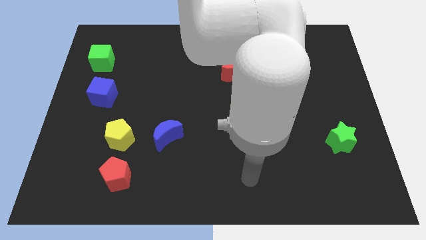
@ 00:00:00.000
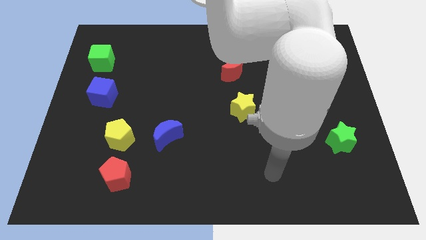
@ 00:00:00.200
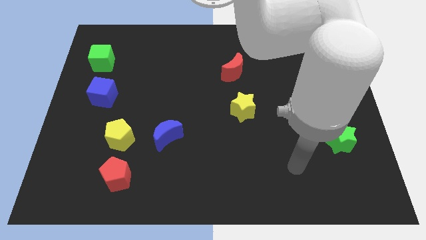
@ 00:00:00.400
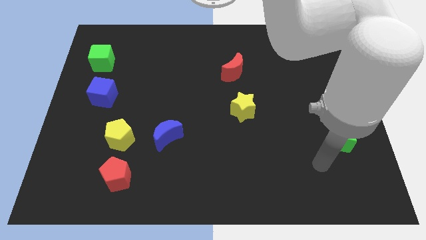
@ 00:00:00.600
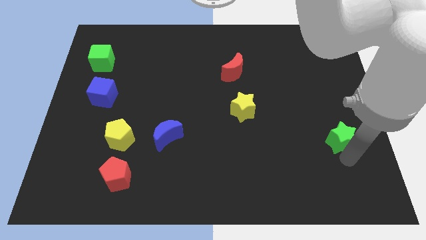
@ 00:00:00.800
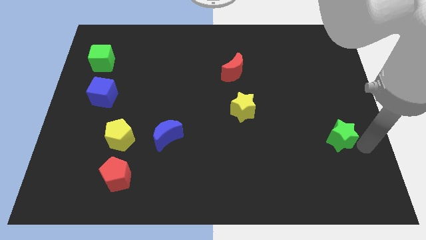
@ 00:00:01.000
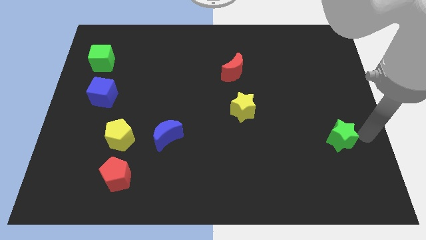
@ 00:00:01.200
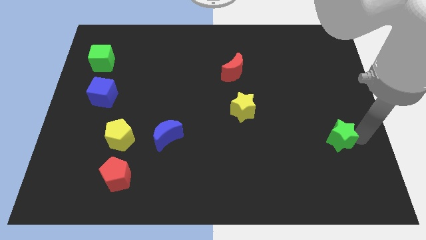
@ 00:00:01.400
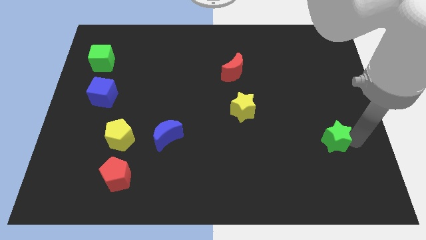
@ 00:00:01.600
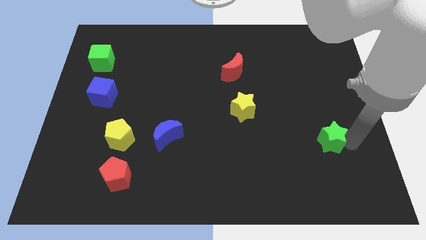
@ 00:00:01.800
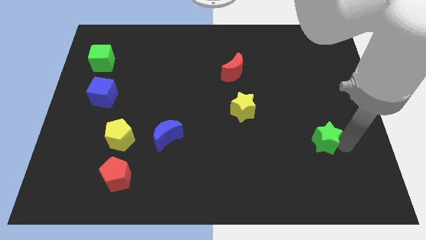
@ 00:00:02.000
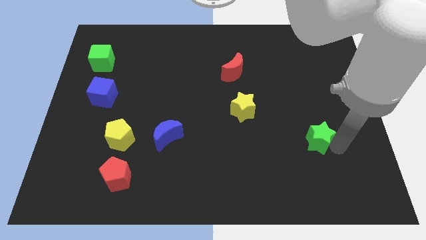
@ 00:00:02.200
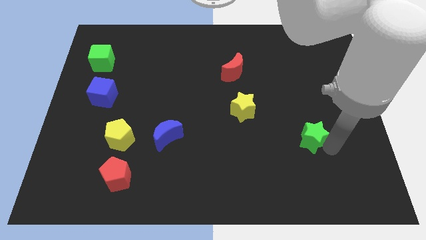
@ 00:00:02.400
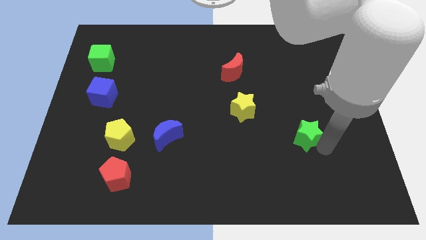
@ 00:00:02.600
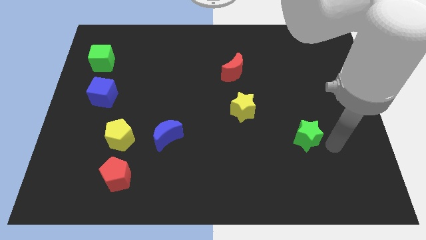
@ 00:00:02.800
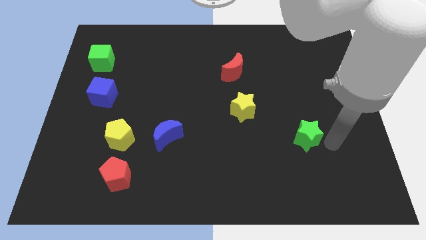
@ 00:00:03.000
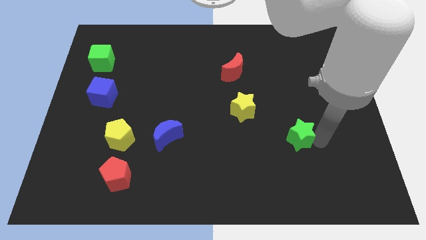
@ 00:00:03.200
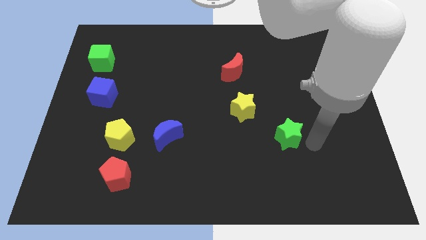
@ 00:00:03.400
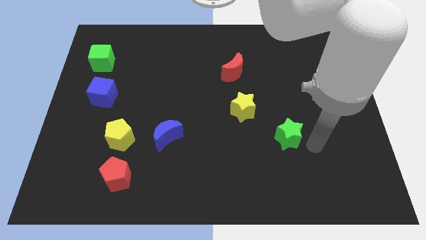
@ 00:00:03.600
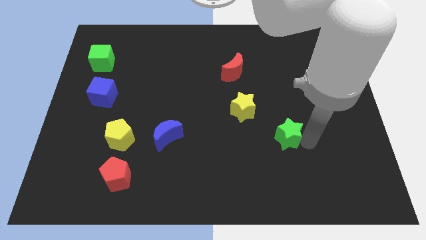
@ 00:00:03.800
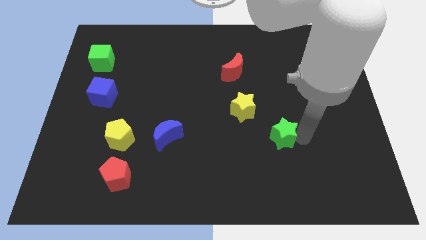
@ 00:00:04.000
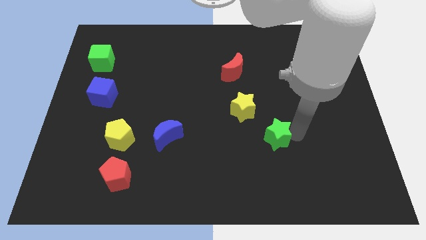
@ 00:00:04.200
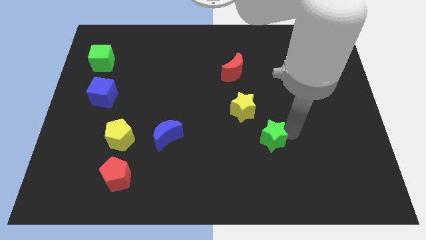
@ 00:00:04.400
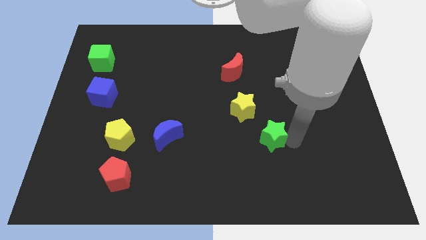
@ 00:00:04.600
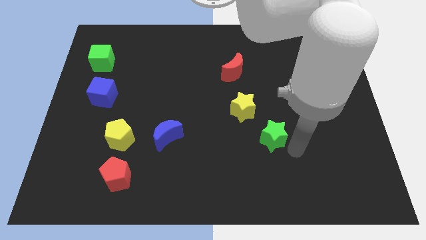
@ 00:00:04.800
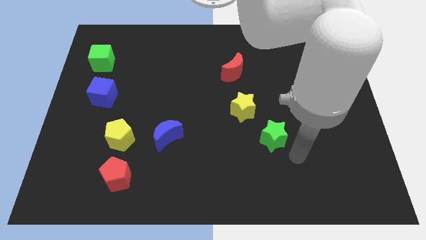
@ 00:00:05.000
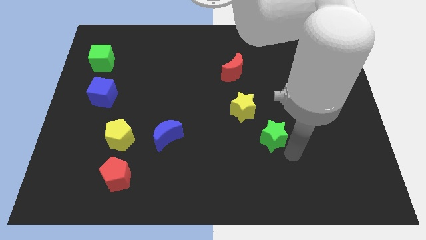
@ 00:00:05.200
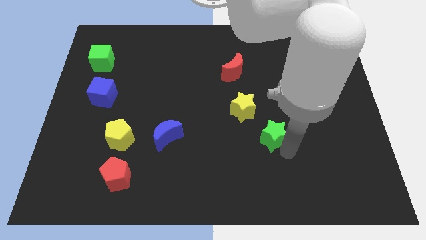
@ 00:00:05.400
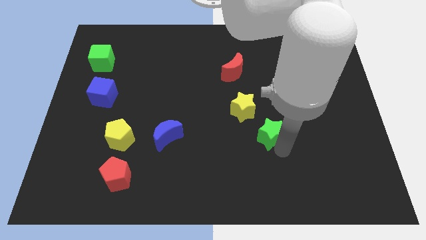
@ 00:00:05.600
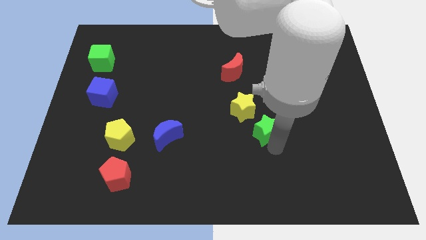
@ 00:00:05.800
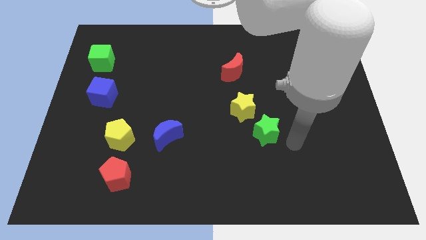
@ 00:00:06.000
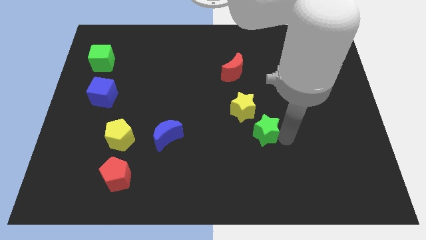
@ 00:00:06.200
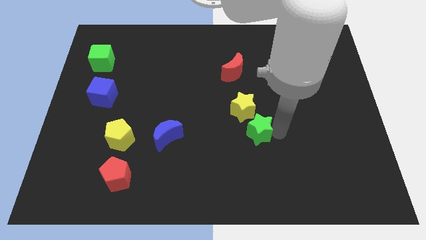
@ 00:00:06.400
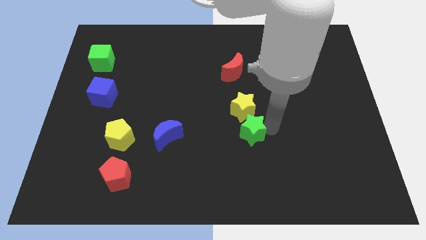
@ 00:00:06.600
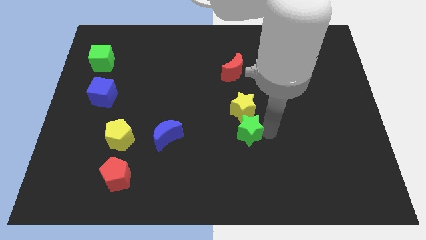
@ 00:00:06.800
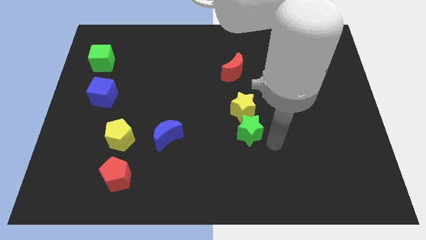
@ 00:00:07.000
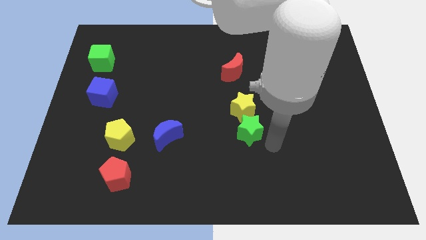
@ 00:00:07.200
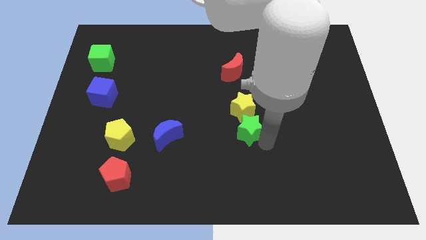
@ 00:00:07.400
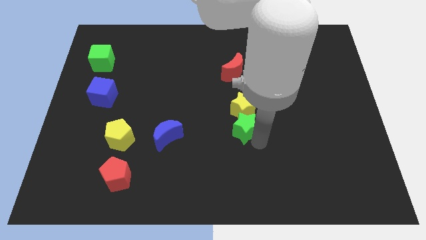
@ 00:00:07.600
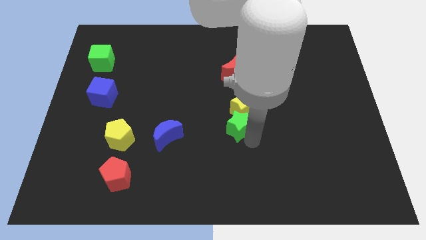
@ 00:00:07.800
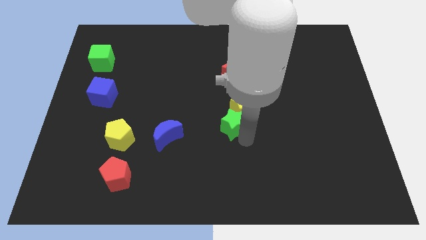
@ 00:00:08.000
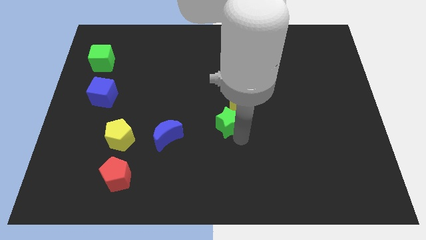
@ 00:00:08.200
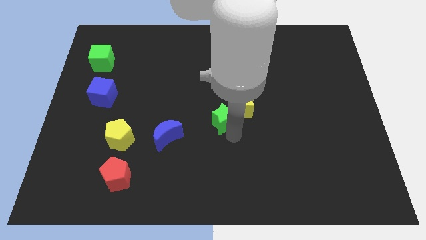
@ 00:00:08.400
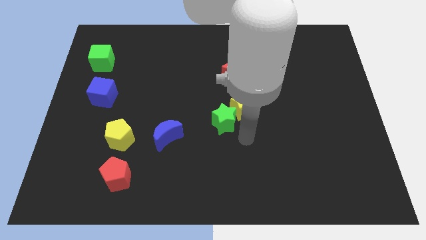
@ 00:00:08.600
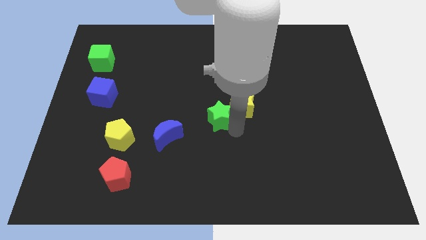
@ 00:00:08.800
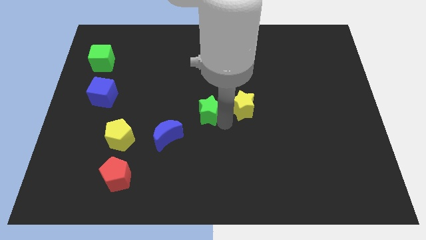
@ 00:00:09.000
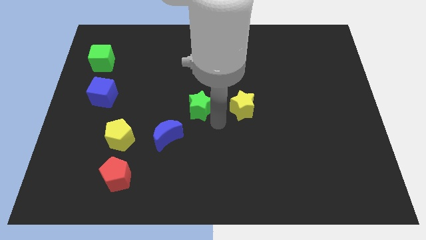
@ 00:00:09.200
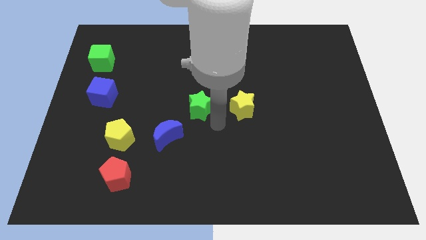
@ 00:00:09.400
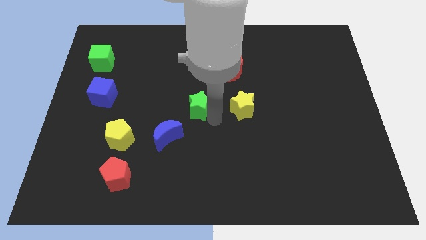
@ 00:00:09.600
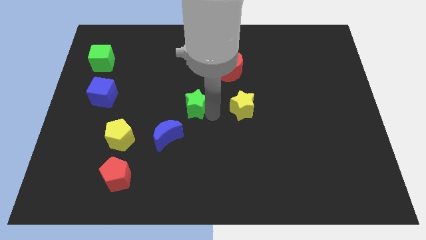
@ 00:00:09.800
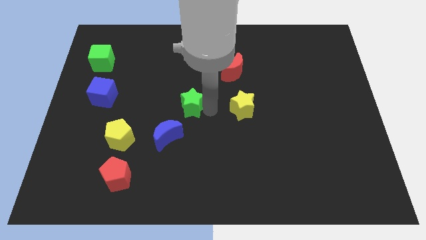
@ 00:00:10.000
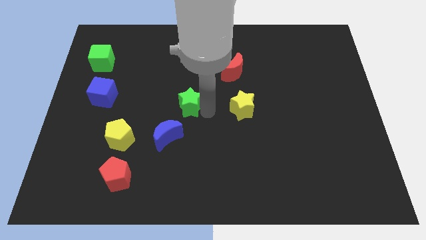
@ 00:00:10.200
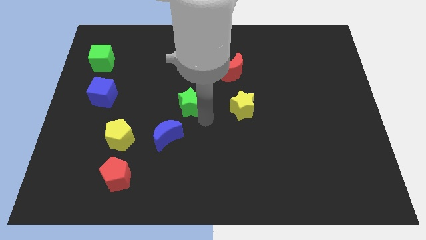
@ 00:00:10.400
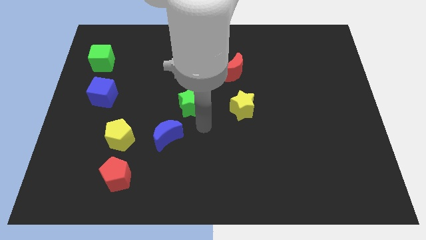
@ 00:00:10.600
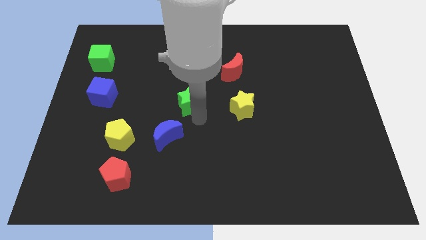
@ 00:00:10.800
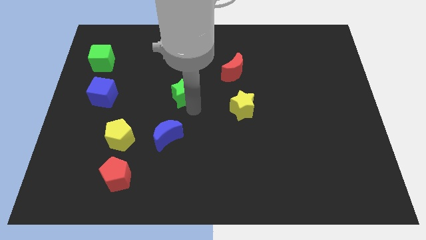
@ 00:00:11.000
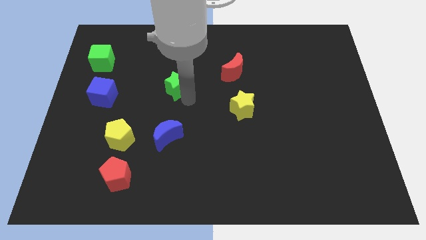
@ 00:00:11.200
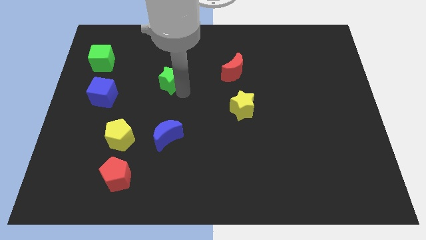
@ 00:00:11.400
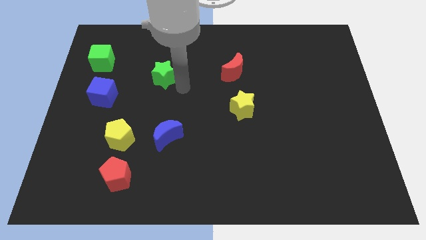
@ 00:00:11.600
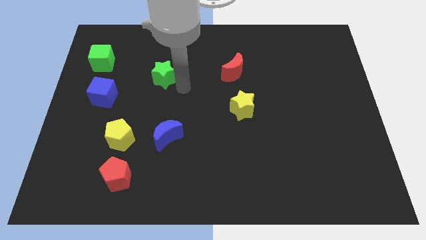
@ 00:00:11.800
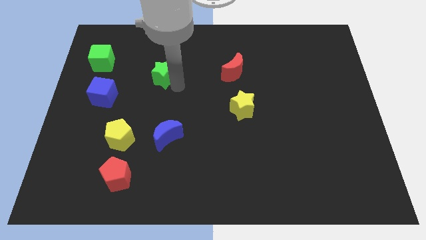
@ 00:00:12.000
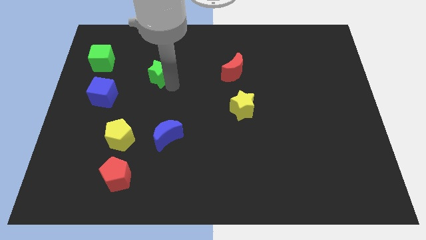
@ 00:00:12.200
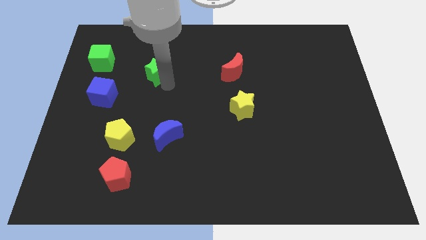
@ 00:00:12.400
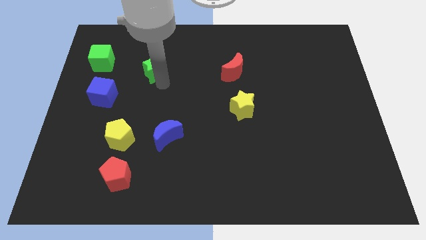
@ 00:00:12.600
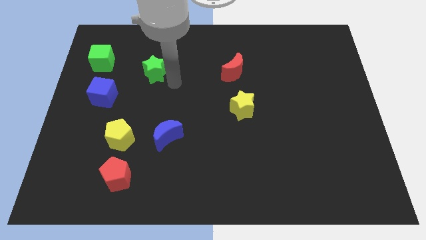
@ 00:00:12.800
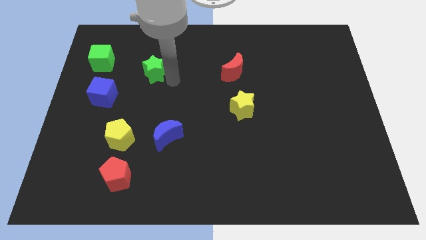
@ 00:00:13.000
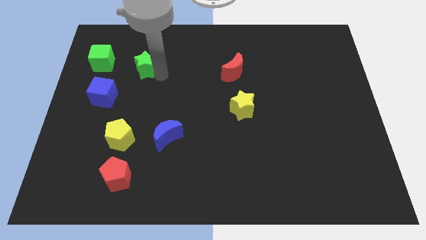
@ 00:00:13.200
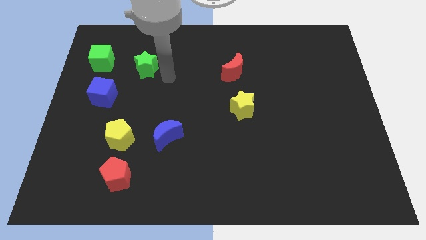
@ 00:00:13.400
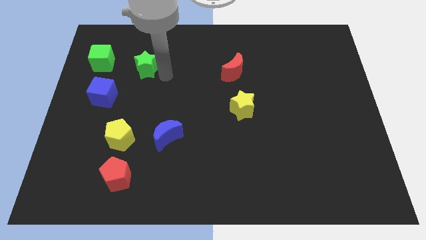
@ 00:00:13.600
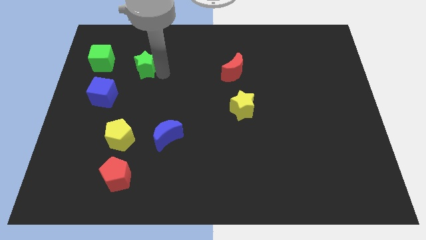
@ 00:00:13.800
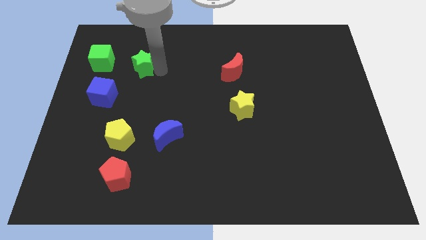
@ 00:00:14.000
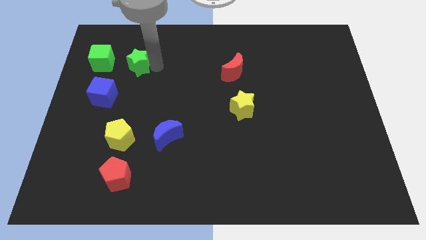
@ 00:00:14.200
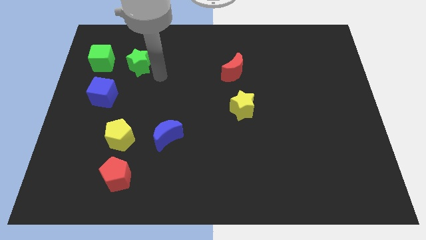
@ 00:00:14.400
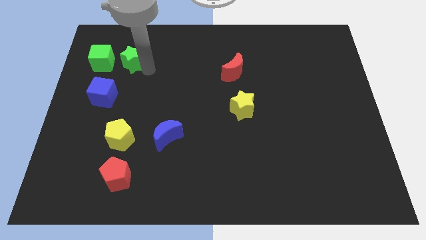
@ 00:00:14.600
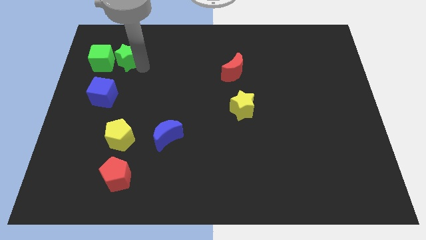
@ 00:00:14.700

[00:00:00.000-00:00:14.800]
move the green star to the top side of the blue cube
